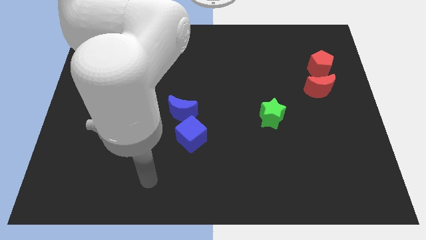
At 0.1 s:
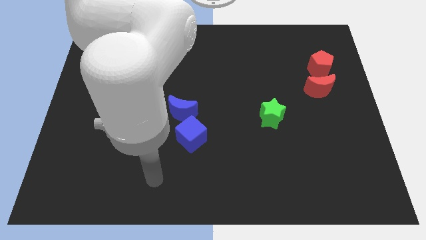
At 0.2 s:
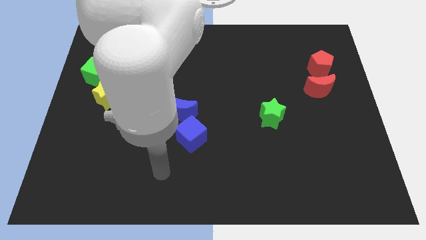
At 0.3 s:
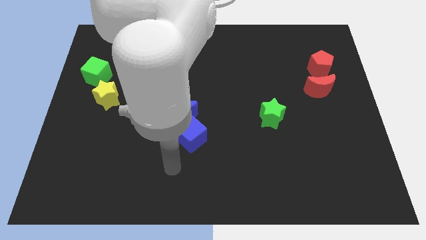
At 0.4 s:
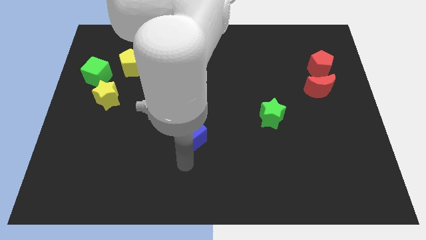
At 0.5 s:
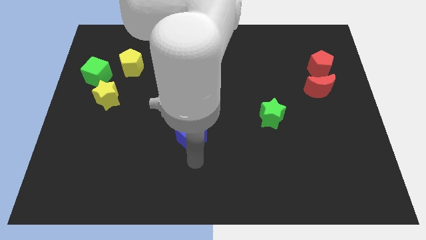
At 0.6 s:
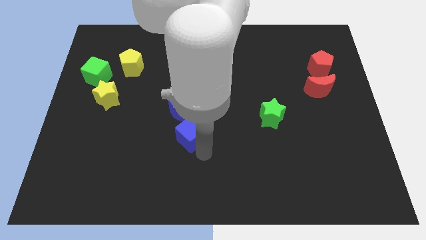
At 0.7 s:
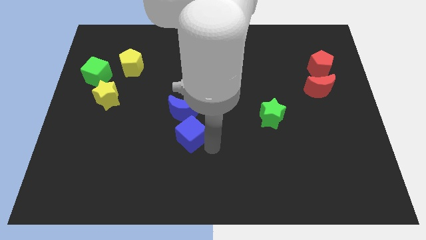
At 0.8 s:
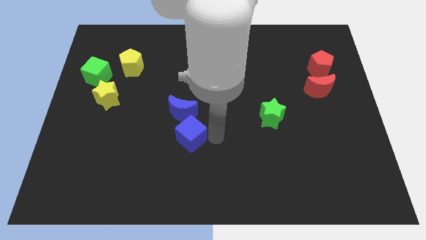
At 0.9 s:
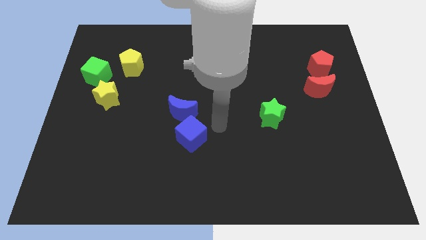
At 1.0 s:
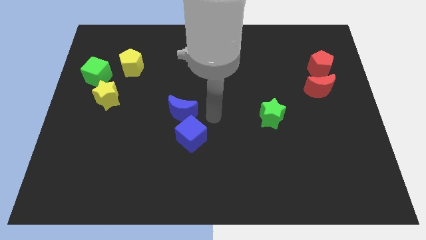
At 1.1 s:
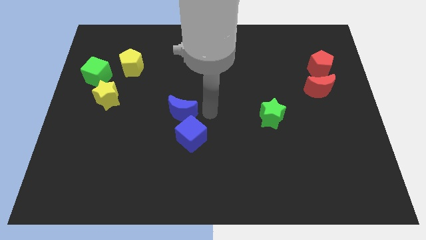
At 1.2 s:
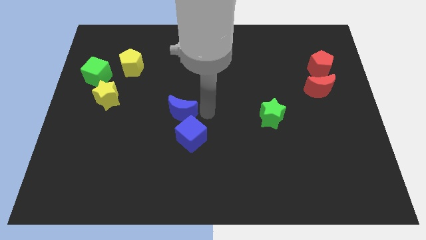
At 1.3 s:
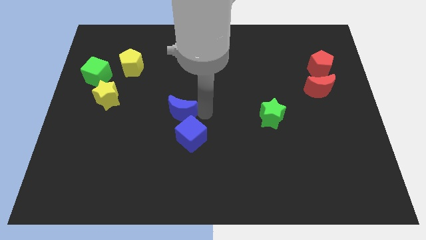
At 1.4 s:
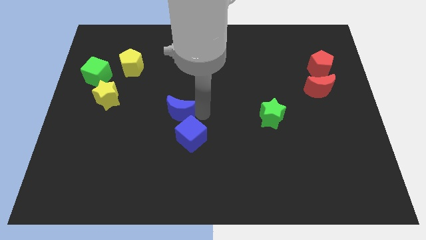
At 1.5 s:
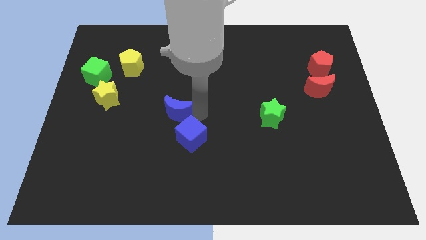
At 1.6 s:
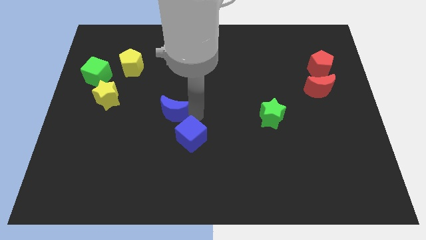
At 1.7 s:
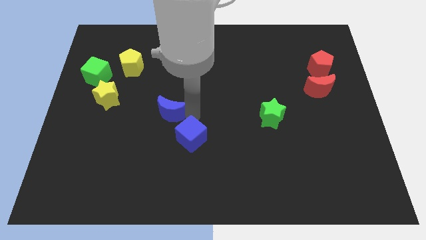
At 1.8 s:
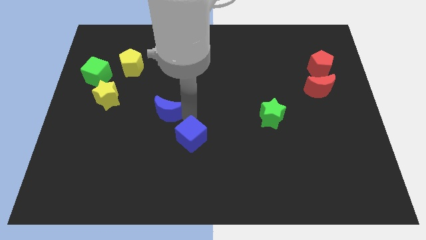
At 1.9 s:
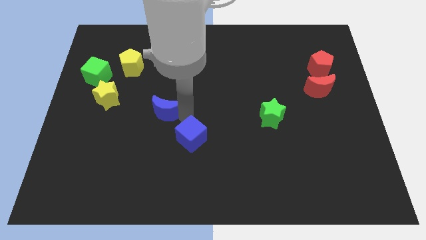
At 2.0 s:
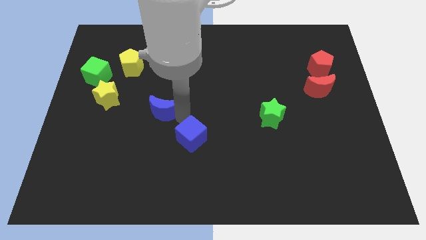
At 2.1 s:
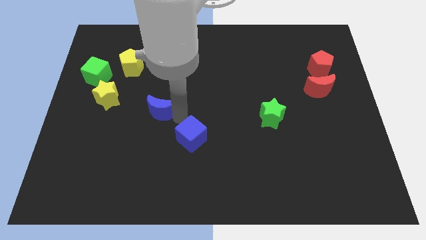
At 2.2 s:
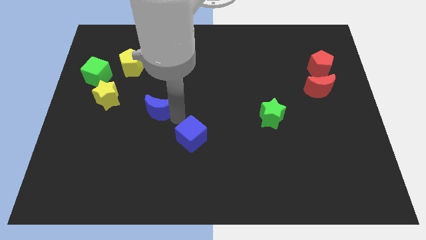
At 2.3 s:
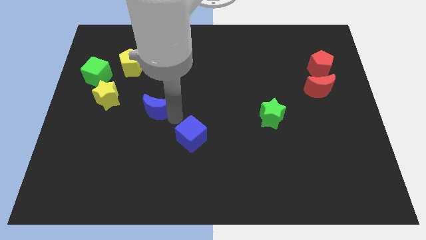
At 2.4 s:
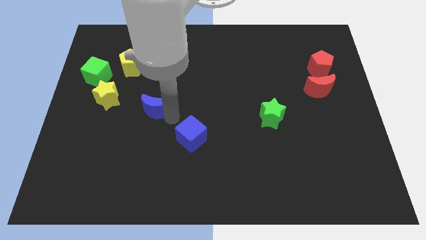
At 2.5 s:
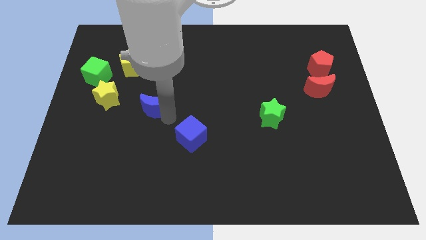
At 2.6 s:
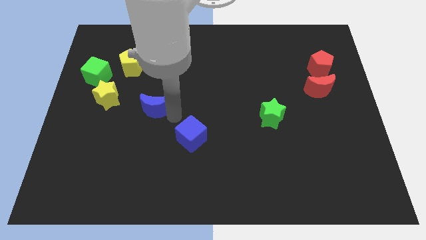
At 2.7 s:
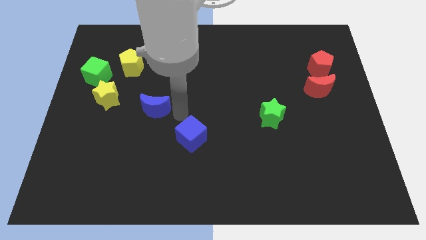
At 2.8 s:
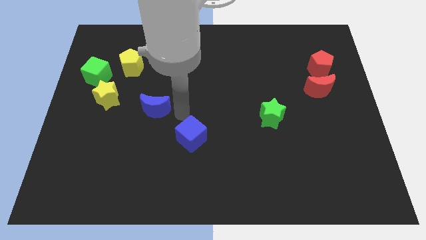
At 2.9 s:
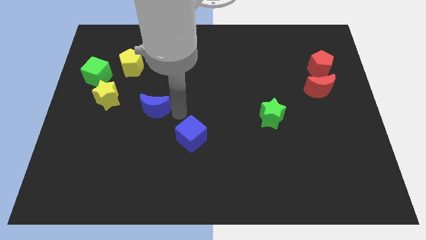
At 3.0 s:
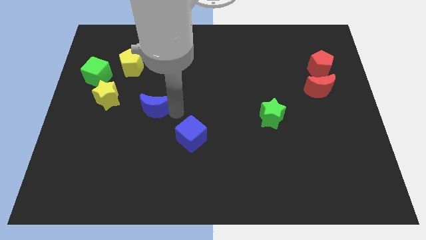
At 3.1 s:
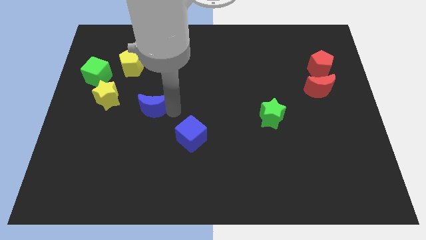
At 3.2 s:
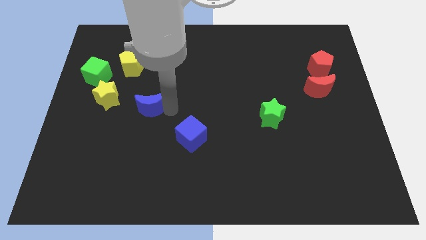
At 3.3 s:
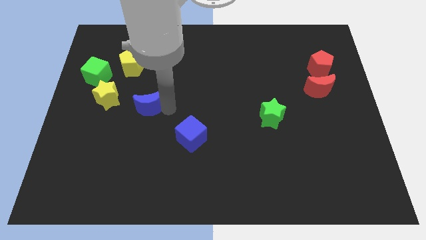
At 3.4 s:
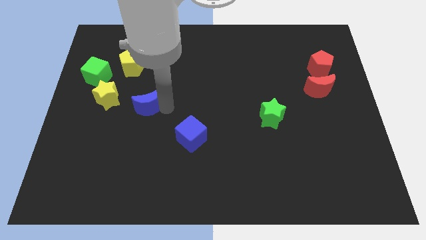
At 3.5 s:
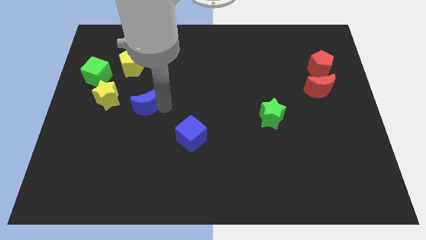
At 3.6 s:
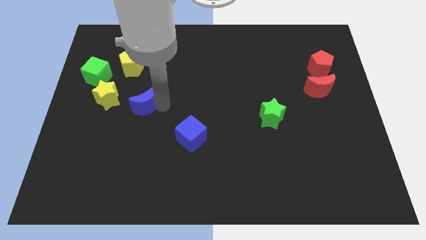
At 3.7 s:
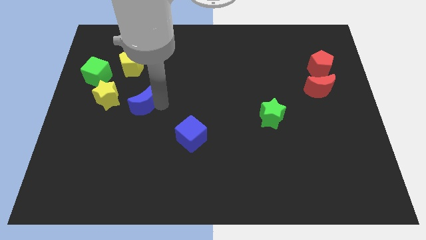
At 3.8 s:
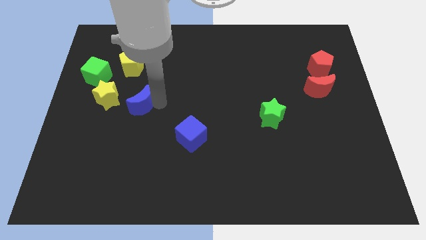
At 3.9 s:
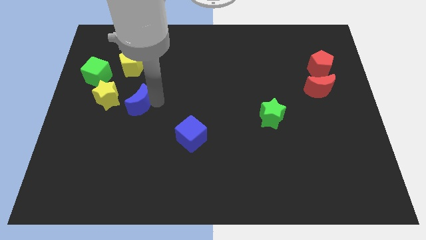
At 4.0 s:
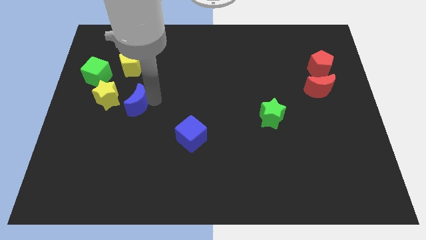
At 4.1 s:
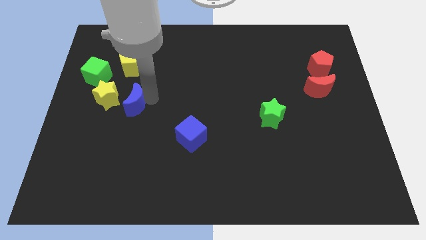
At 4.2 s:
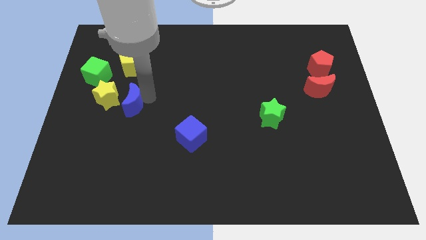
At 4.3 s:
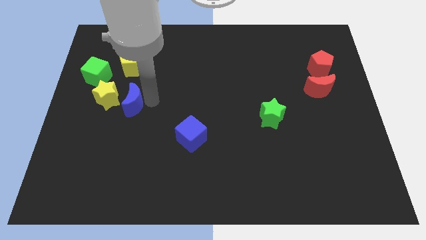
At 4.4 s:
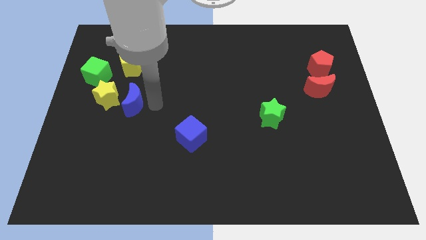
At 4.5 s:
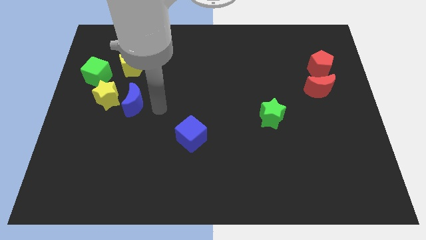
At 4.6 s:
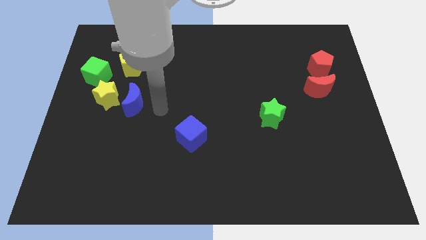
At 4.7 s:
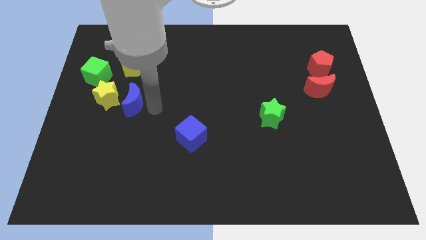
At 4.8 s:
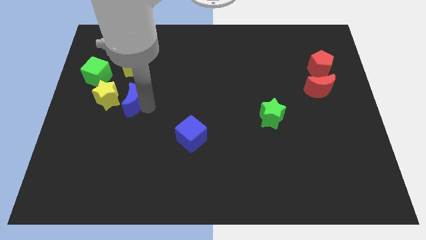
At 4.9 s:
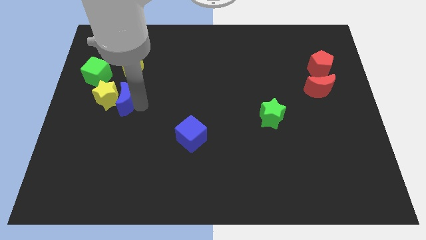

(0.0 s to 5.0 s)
put the blue moon next to the yellow star

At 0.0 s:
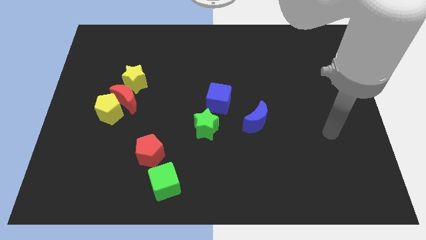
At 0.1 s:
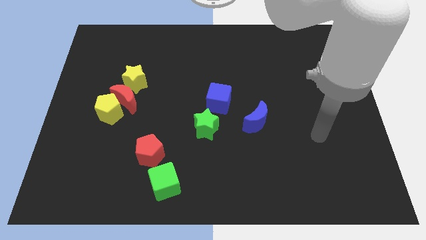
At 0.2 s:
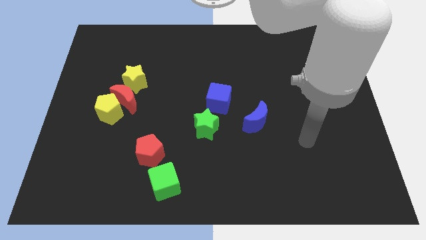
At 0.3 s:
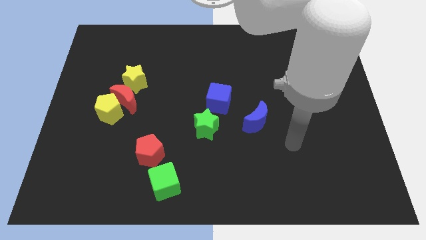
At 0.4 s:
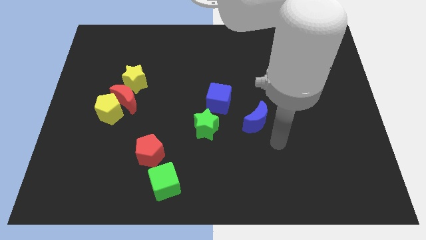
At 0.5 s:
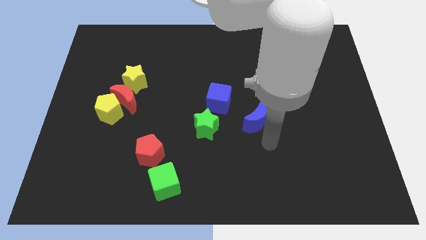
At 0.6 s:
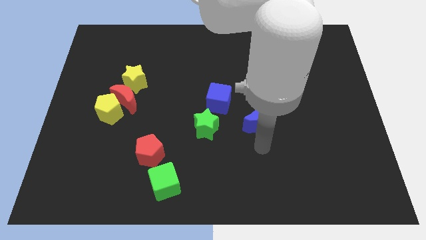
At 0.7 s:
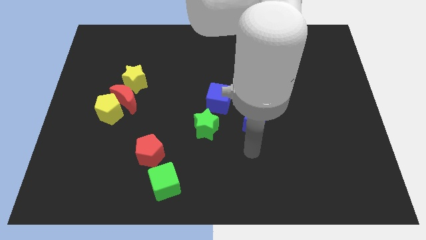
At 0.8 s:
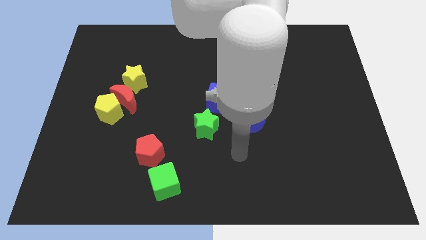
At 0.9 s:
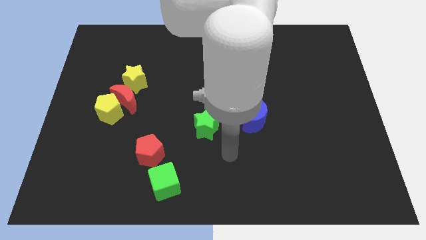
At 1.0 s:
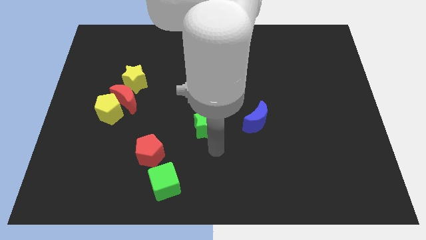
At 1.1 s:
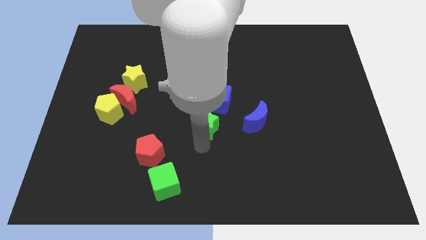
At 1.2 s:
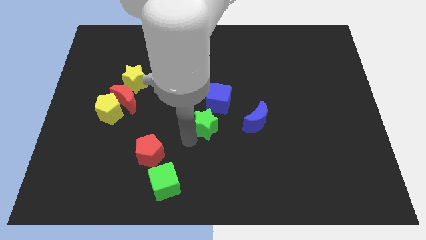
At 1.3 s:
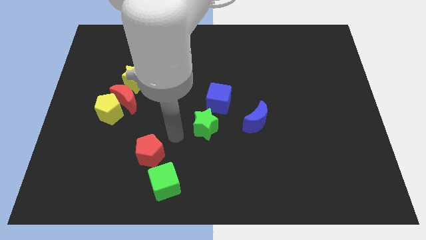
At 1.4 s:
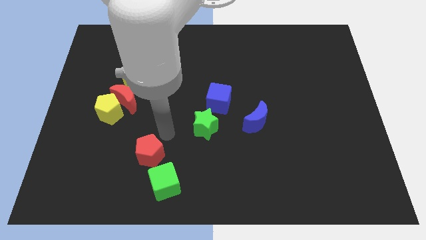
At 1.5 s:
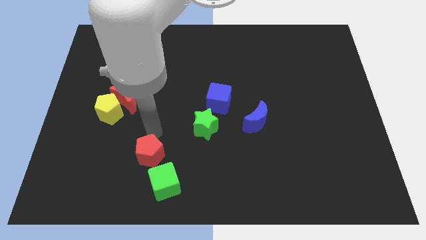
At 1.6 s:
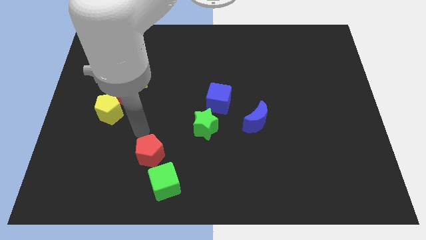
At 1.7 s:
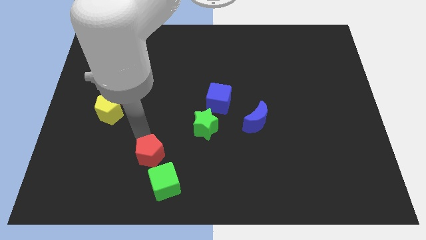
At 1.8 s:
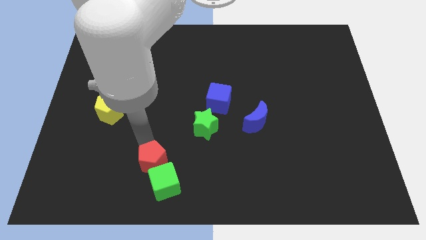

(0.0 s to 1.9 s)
slide the red pentagon towards the green cube
